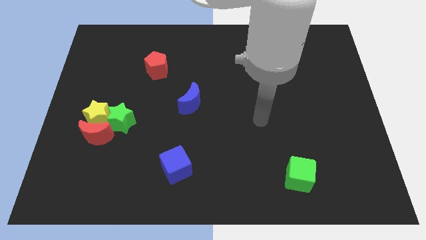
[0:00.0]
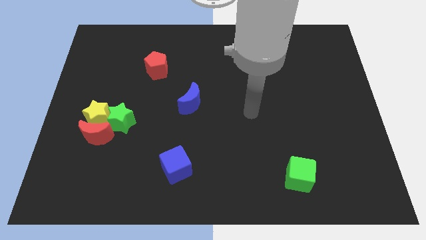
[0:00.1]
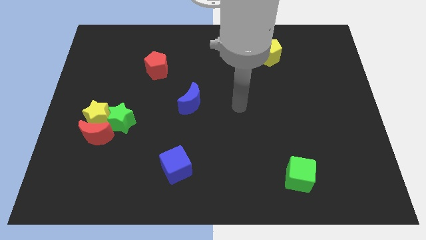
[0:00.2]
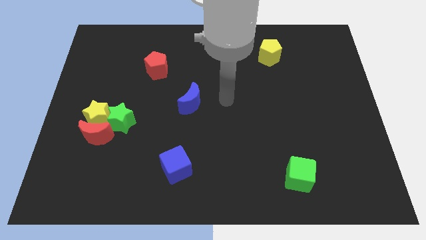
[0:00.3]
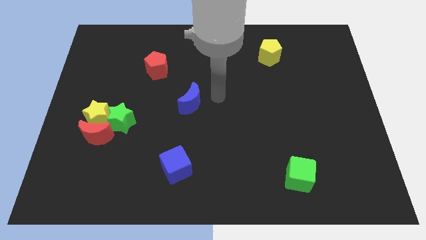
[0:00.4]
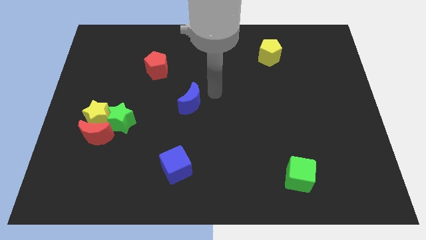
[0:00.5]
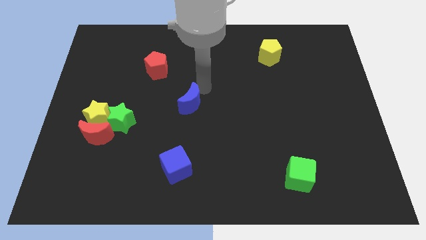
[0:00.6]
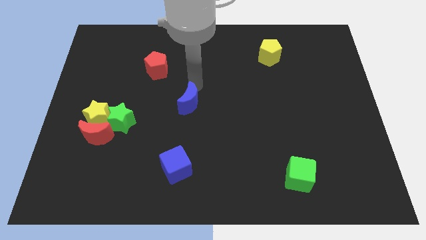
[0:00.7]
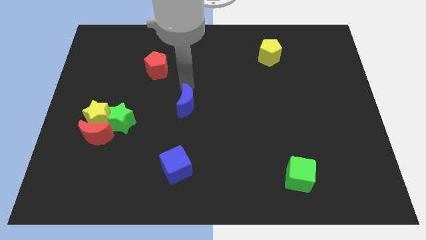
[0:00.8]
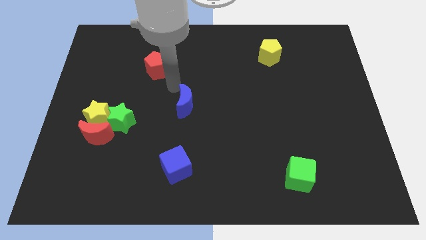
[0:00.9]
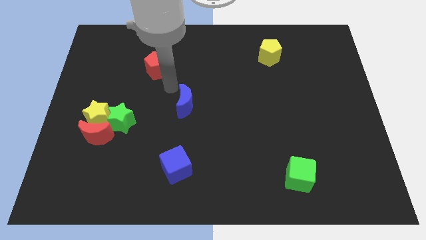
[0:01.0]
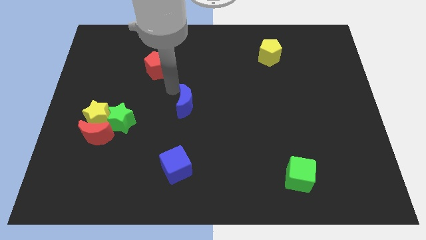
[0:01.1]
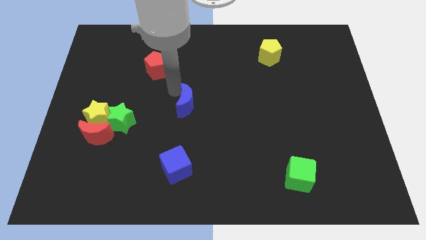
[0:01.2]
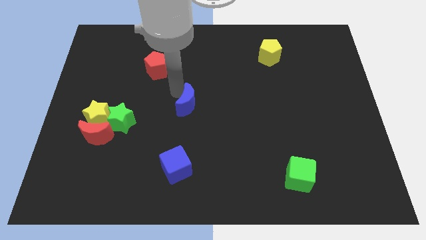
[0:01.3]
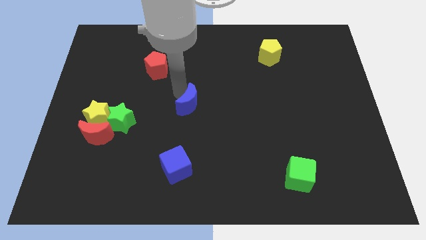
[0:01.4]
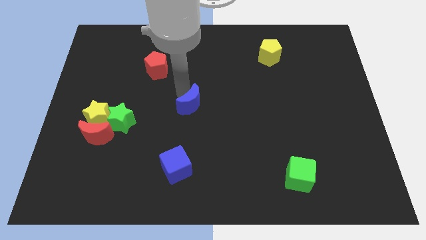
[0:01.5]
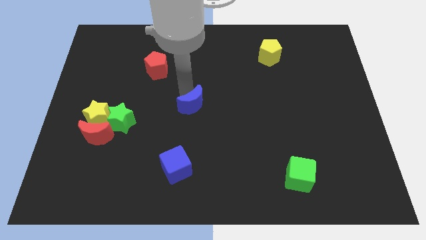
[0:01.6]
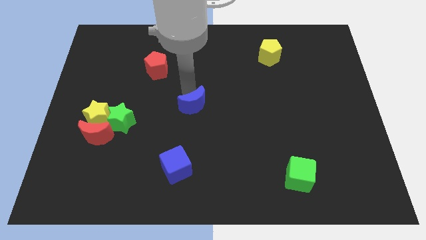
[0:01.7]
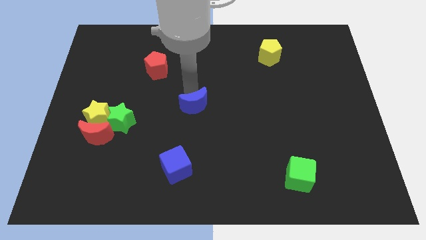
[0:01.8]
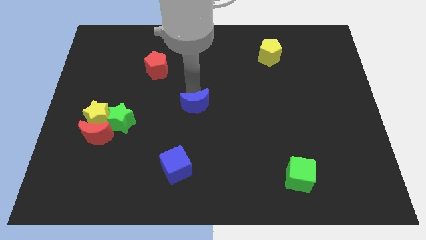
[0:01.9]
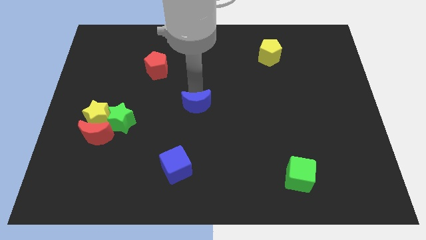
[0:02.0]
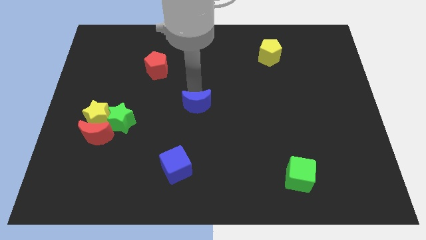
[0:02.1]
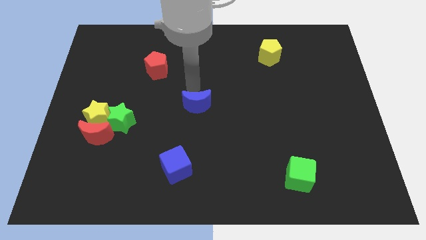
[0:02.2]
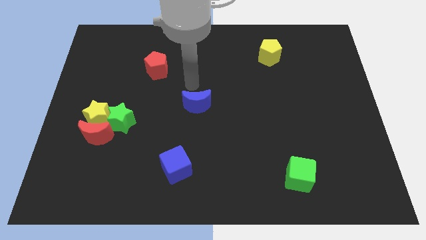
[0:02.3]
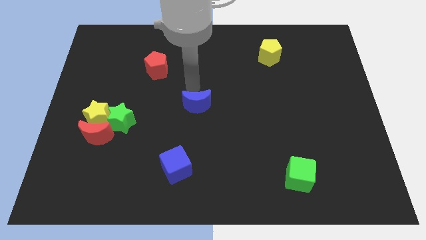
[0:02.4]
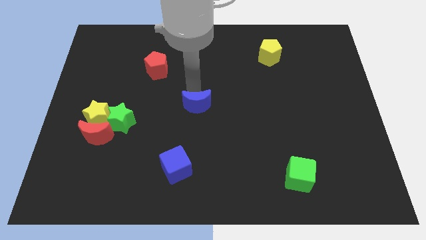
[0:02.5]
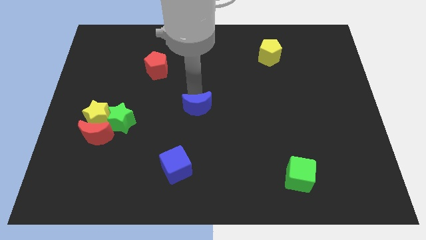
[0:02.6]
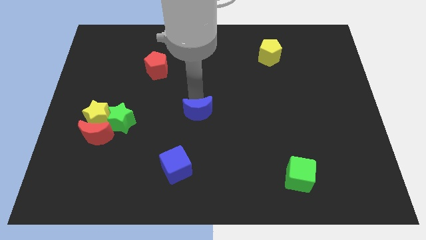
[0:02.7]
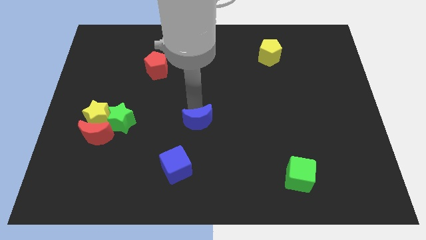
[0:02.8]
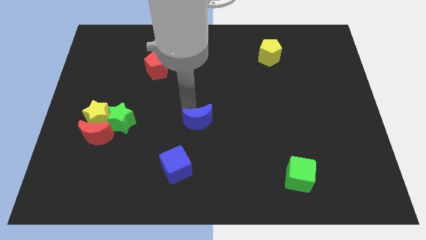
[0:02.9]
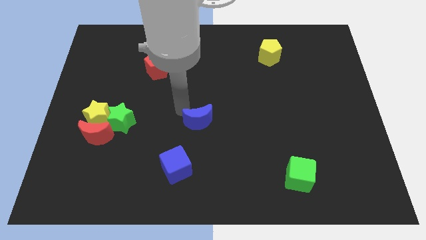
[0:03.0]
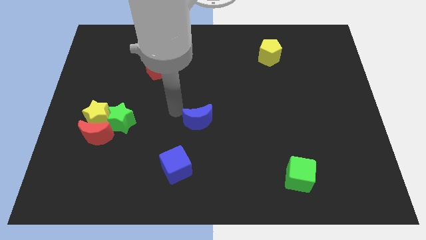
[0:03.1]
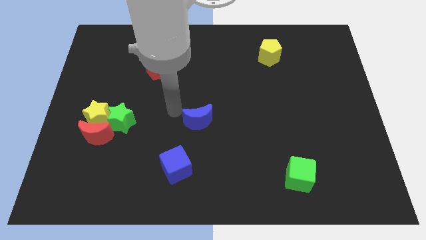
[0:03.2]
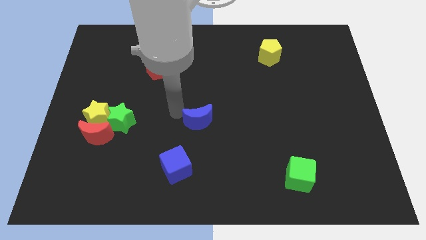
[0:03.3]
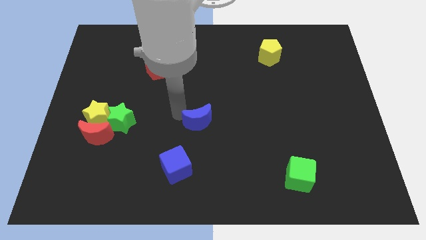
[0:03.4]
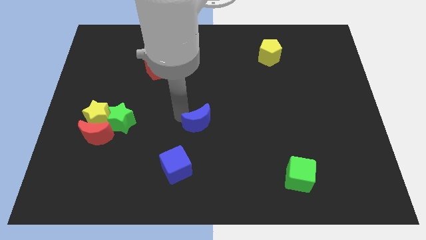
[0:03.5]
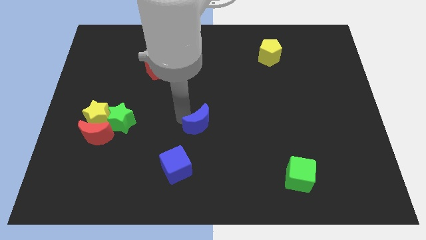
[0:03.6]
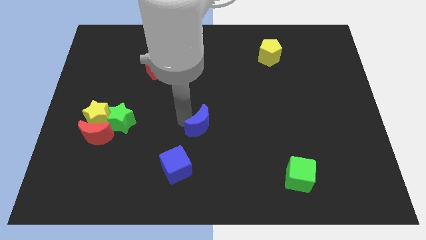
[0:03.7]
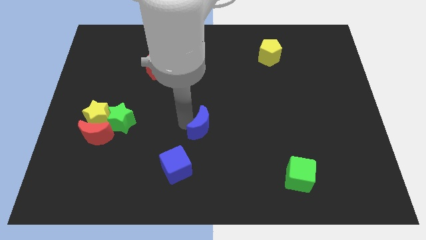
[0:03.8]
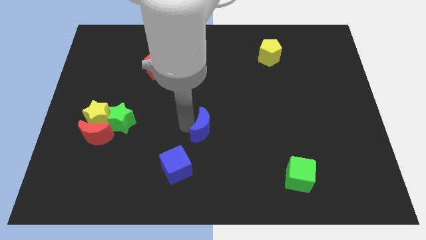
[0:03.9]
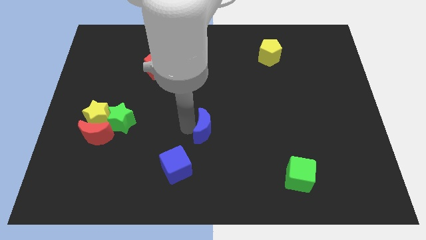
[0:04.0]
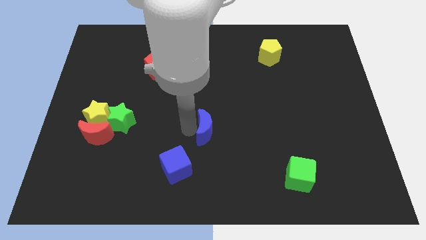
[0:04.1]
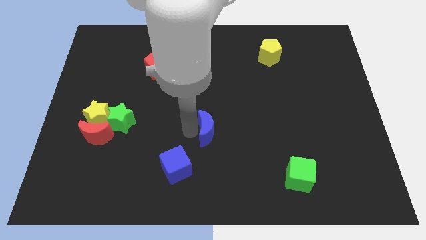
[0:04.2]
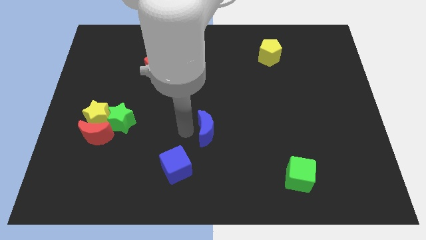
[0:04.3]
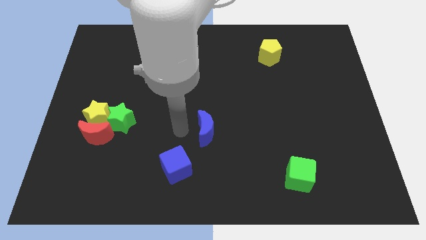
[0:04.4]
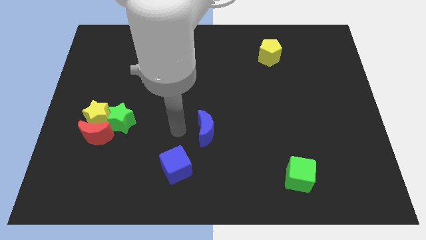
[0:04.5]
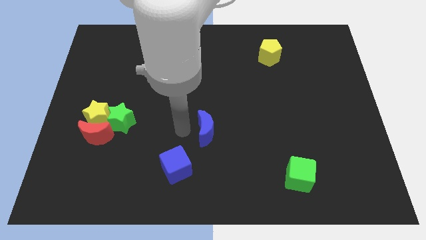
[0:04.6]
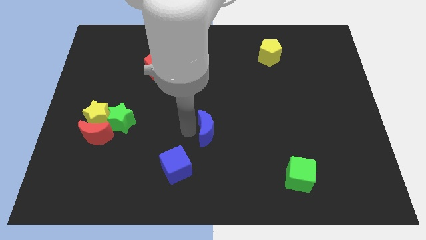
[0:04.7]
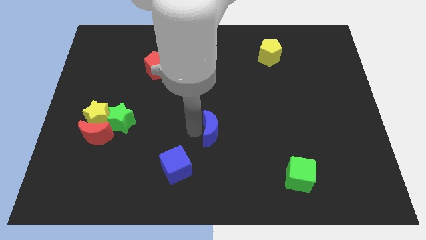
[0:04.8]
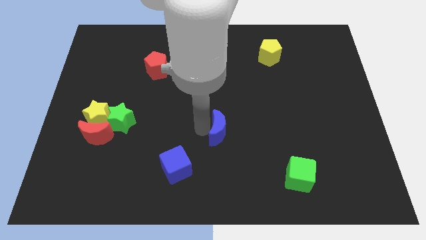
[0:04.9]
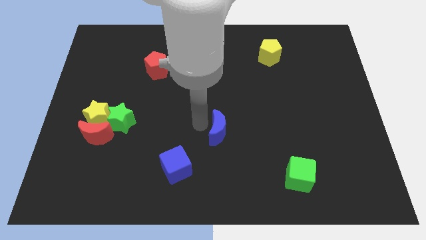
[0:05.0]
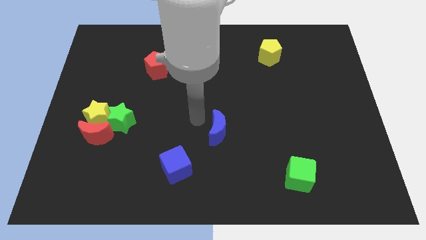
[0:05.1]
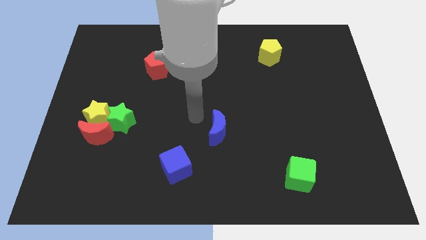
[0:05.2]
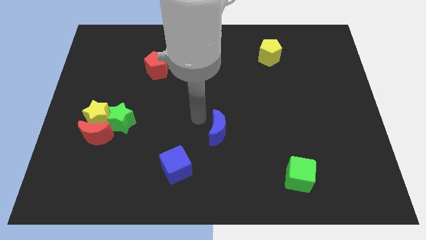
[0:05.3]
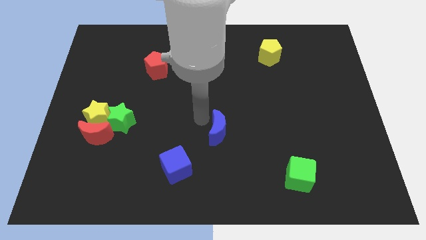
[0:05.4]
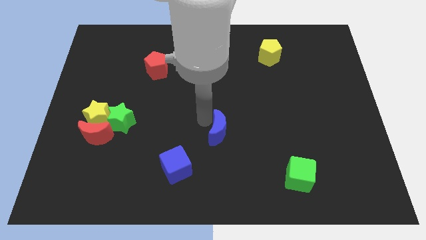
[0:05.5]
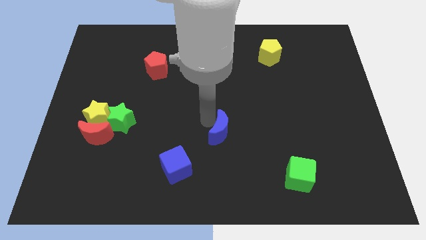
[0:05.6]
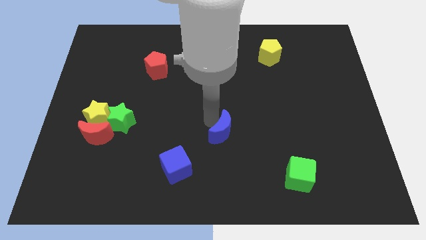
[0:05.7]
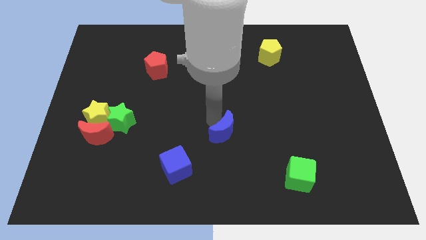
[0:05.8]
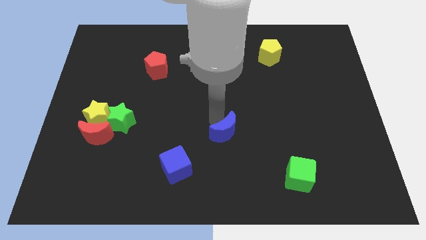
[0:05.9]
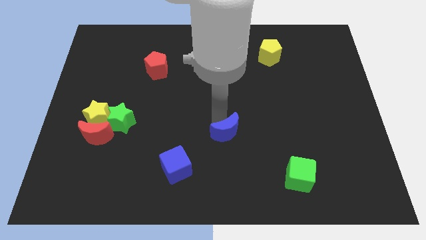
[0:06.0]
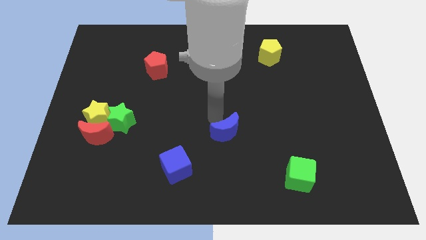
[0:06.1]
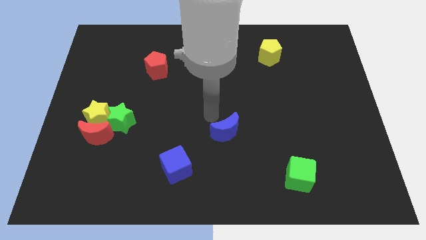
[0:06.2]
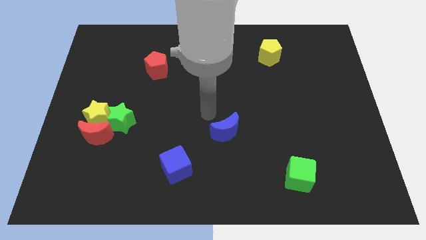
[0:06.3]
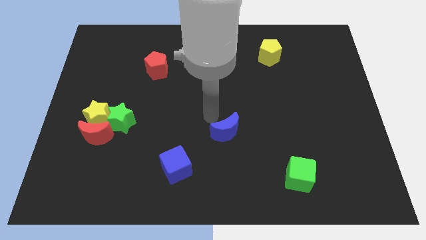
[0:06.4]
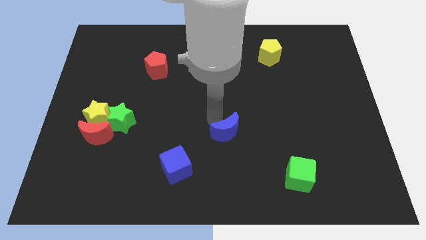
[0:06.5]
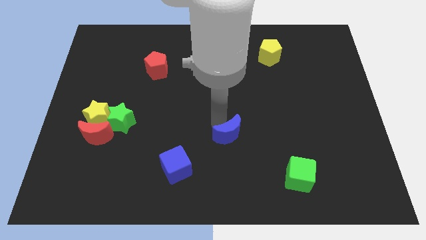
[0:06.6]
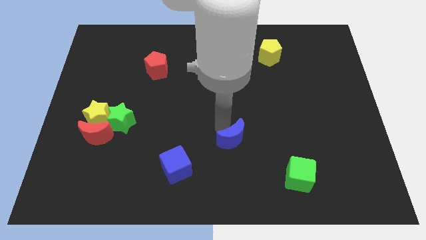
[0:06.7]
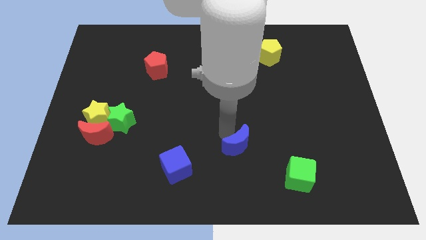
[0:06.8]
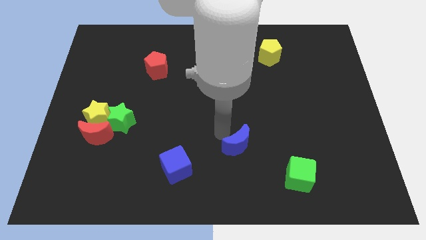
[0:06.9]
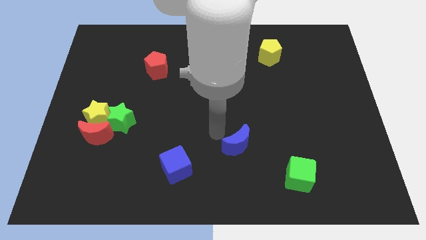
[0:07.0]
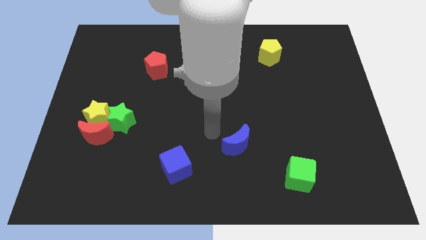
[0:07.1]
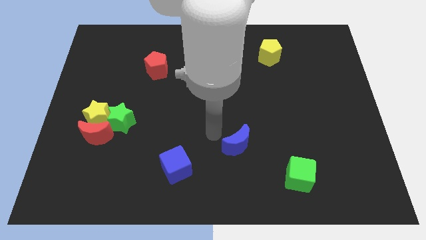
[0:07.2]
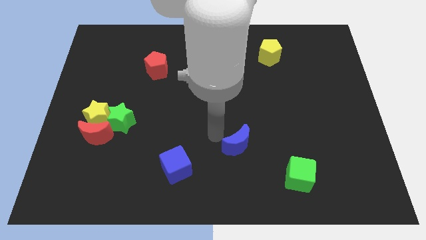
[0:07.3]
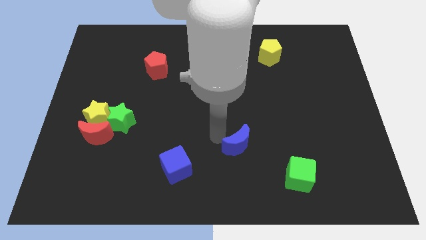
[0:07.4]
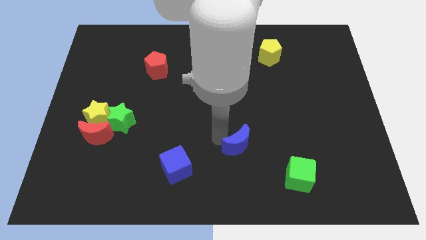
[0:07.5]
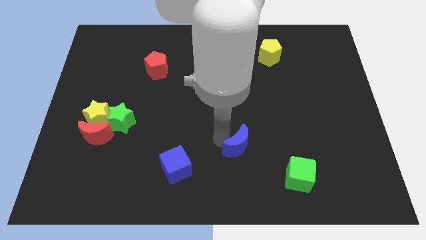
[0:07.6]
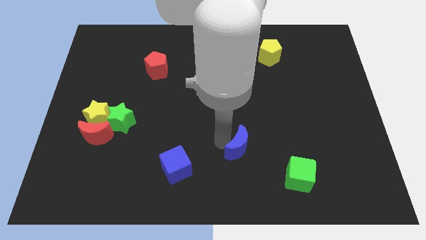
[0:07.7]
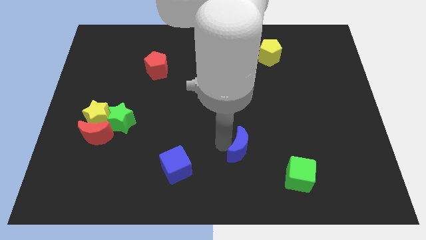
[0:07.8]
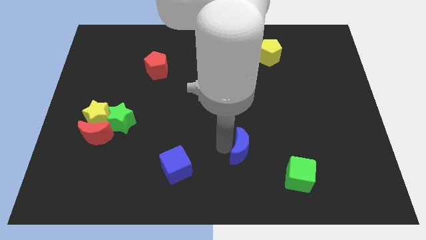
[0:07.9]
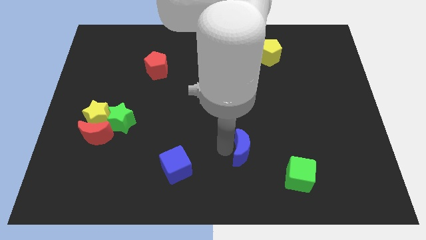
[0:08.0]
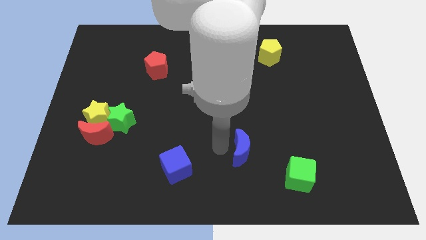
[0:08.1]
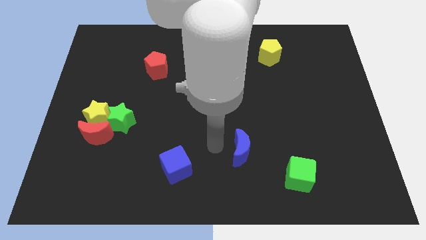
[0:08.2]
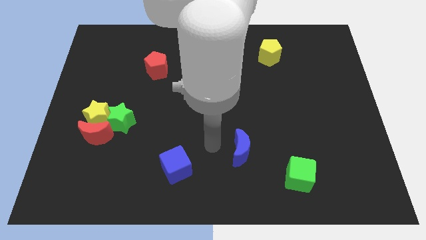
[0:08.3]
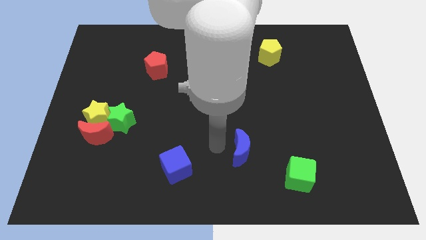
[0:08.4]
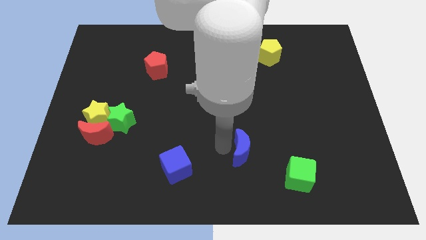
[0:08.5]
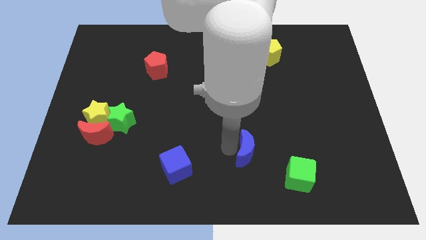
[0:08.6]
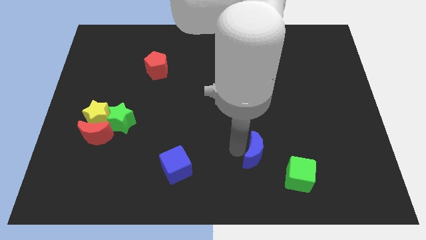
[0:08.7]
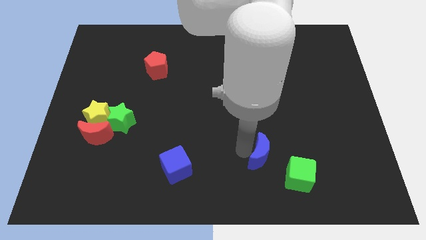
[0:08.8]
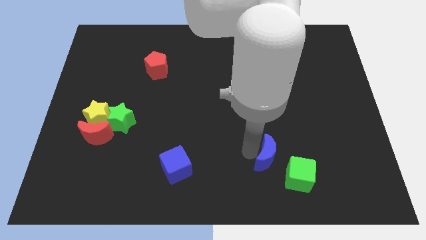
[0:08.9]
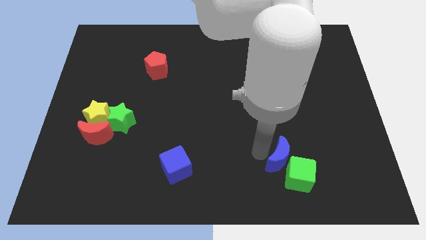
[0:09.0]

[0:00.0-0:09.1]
push the blue moon towards the green cube
